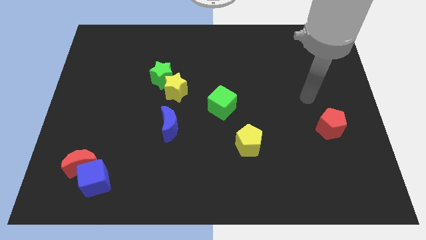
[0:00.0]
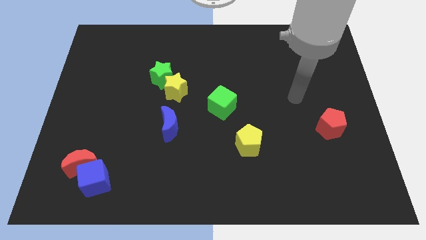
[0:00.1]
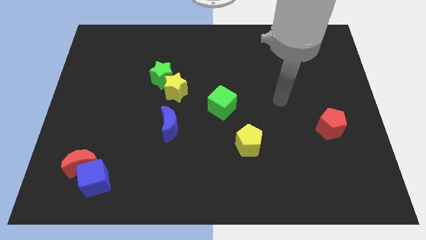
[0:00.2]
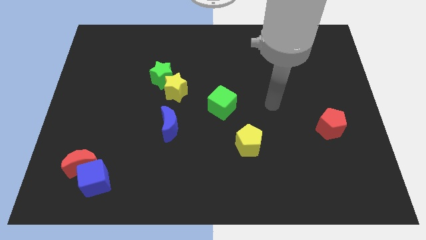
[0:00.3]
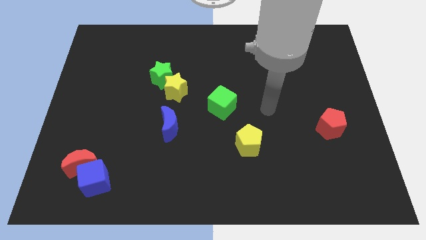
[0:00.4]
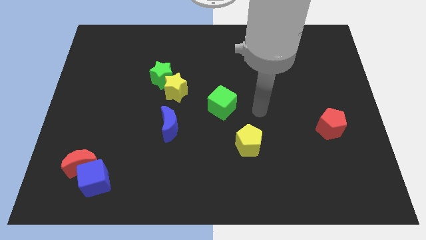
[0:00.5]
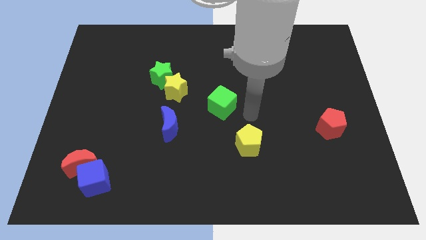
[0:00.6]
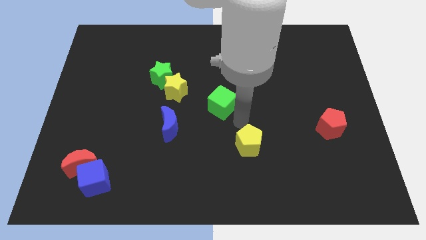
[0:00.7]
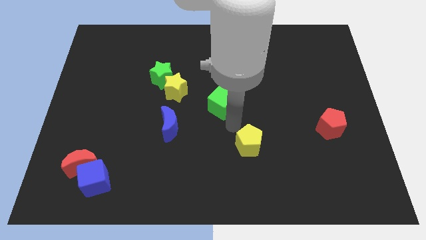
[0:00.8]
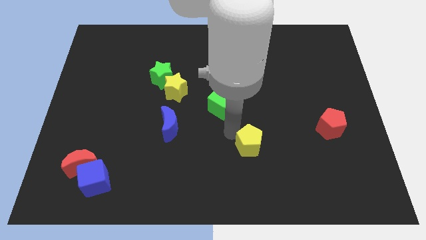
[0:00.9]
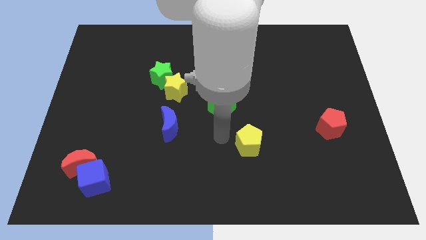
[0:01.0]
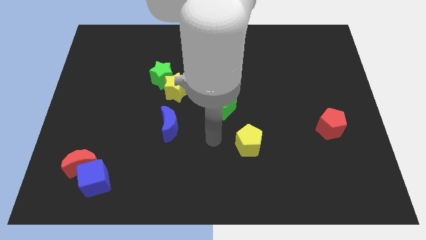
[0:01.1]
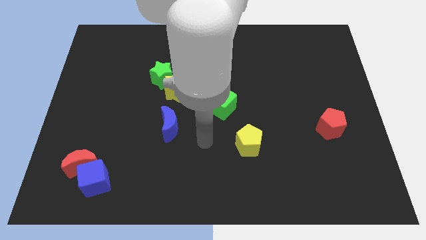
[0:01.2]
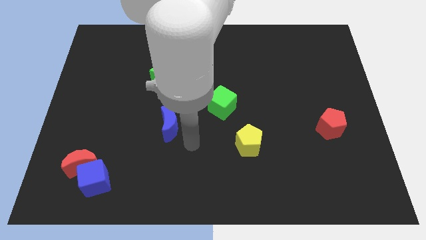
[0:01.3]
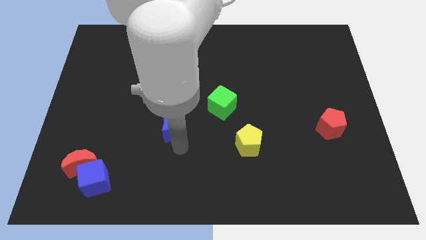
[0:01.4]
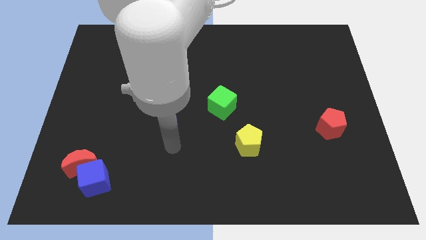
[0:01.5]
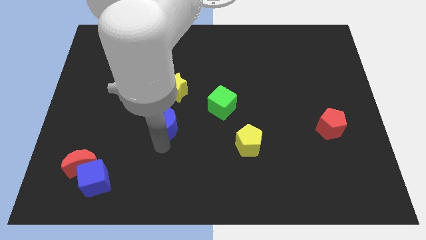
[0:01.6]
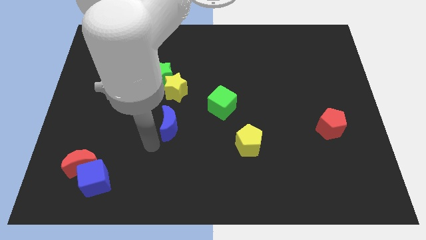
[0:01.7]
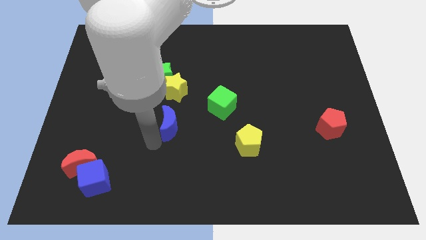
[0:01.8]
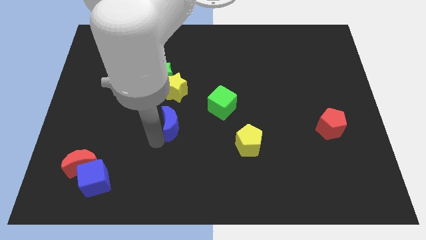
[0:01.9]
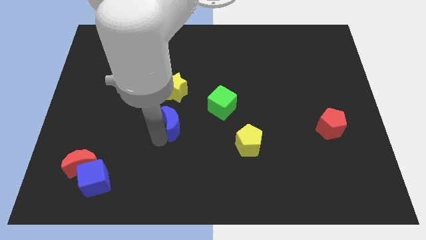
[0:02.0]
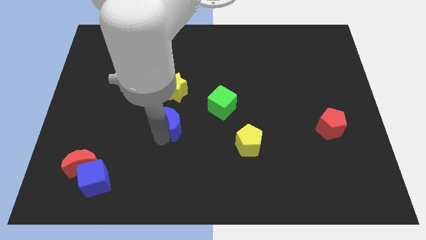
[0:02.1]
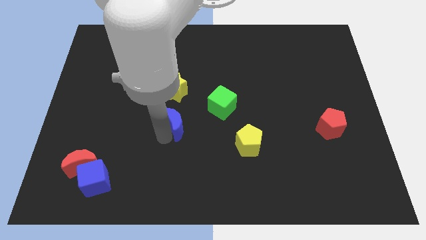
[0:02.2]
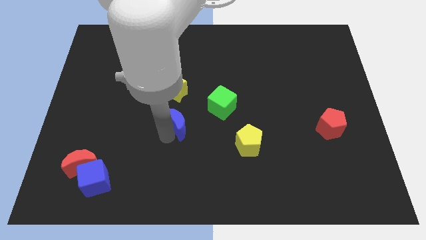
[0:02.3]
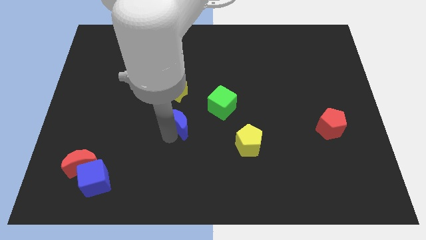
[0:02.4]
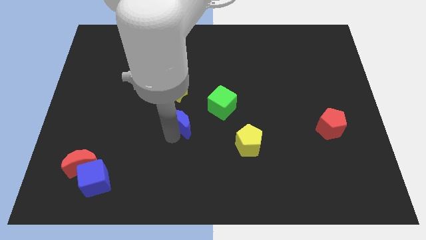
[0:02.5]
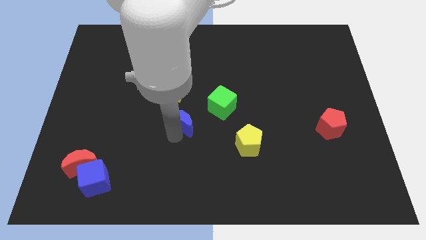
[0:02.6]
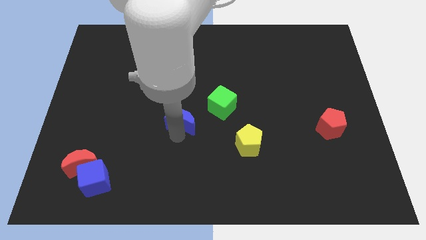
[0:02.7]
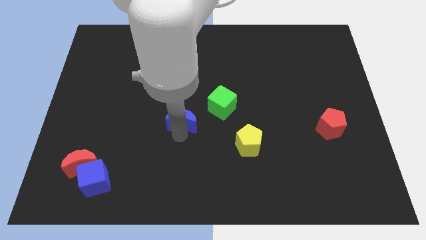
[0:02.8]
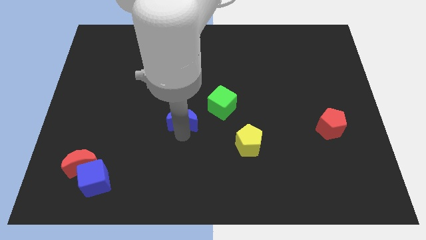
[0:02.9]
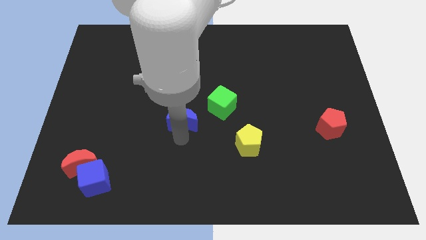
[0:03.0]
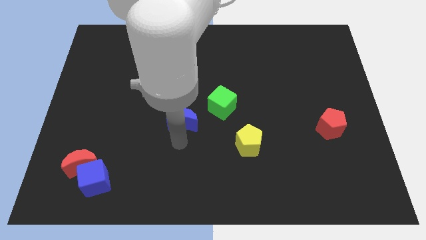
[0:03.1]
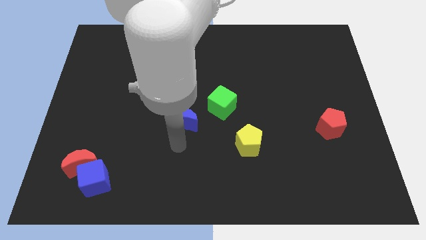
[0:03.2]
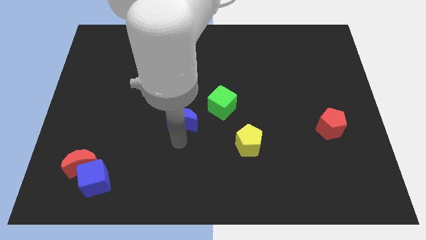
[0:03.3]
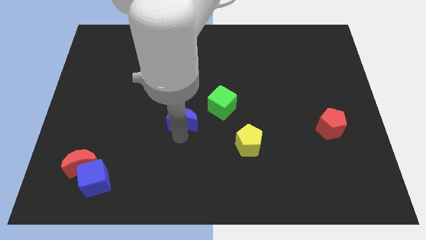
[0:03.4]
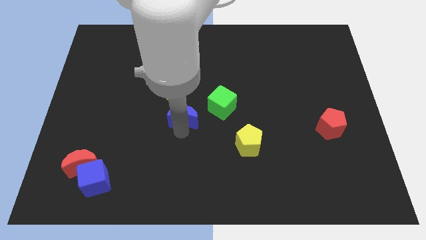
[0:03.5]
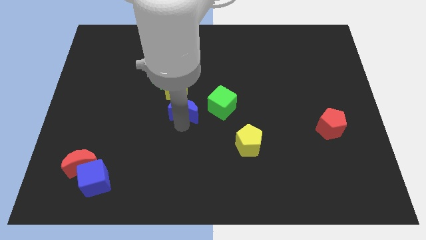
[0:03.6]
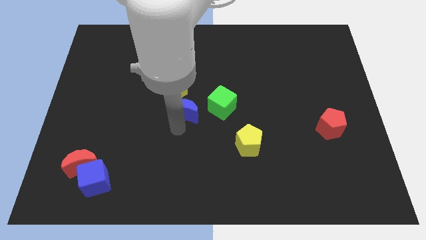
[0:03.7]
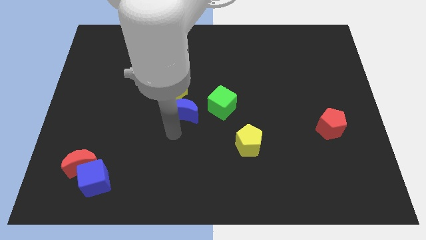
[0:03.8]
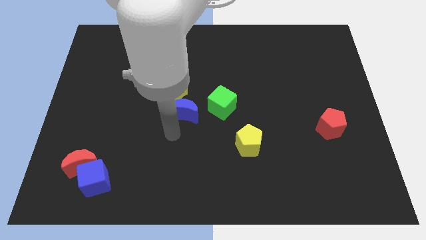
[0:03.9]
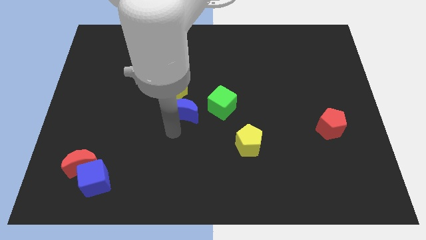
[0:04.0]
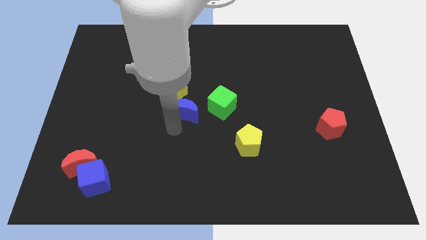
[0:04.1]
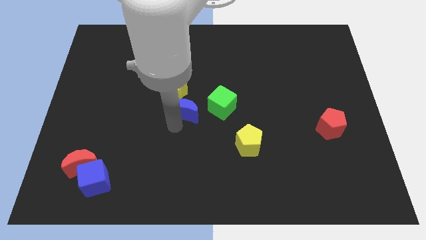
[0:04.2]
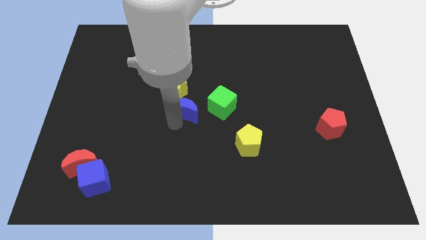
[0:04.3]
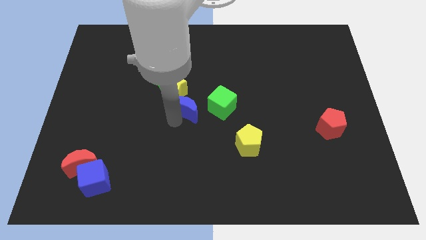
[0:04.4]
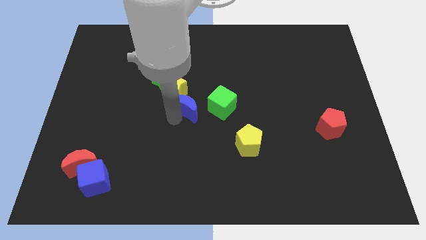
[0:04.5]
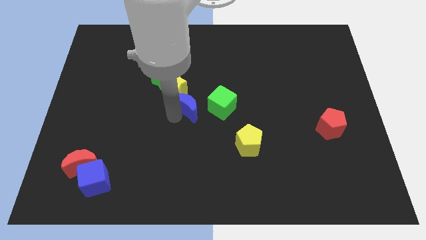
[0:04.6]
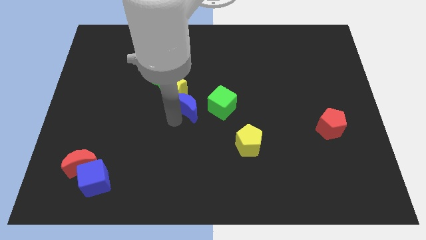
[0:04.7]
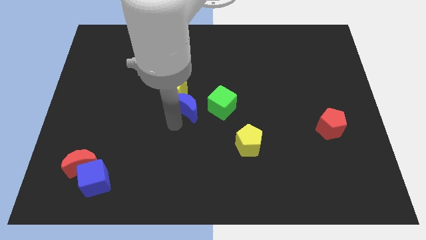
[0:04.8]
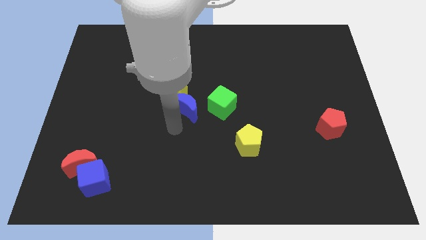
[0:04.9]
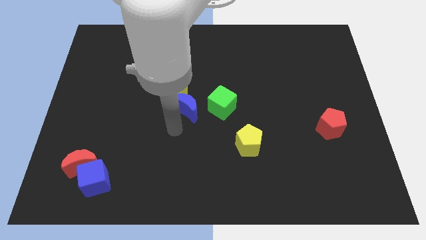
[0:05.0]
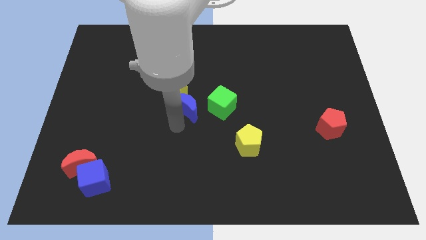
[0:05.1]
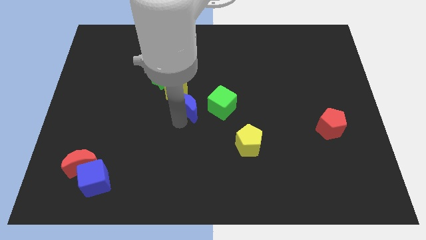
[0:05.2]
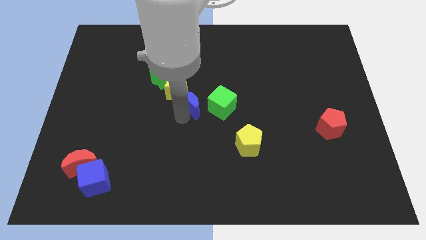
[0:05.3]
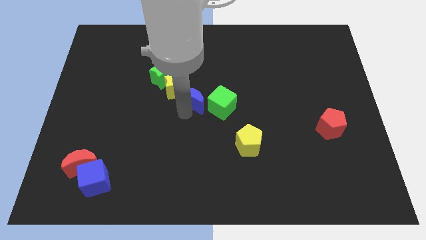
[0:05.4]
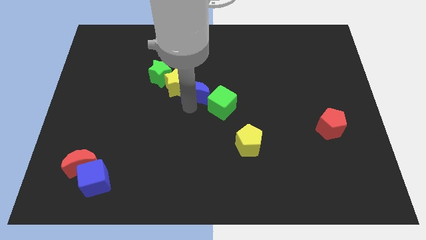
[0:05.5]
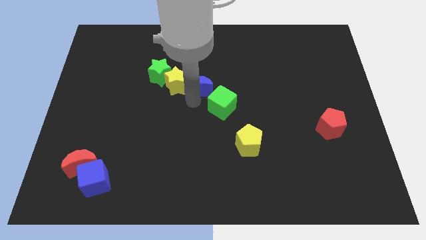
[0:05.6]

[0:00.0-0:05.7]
push the blue moon to the right side of the green star

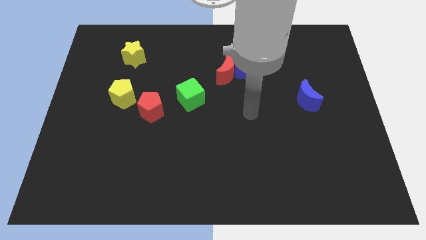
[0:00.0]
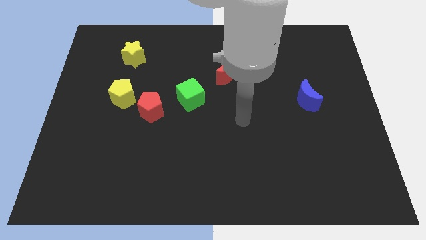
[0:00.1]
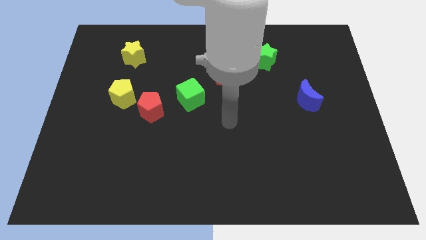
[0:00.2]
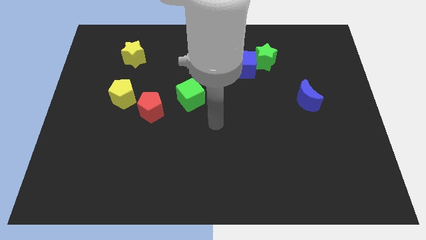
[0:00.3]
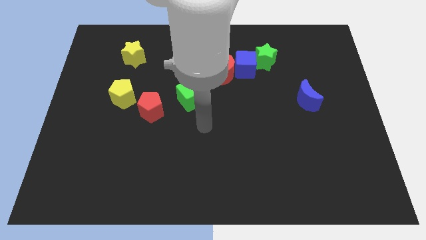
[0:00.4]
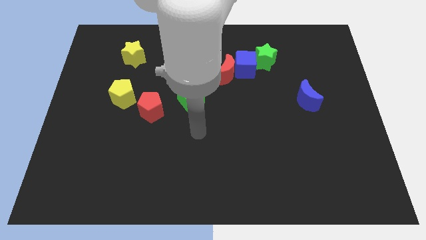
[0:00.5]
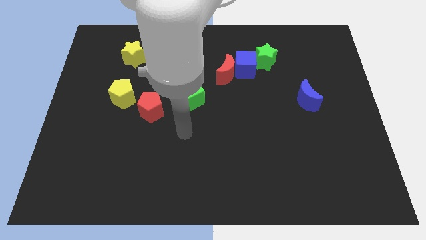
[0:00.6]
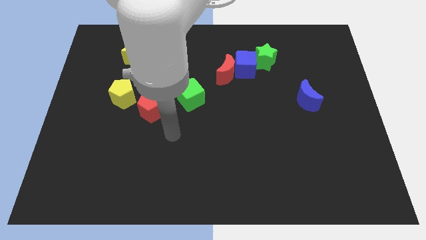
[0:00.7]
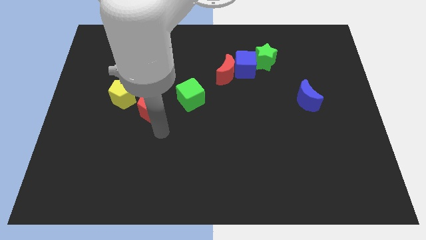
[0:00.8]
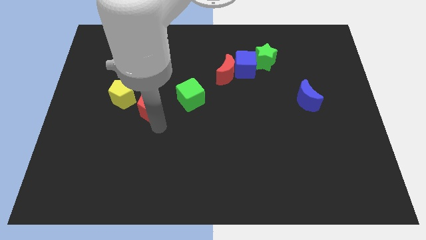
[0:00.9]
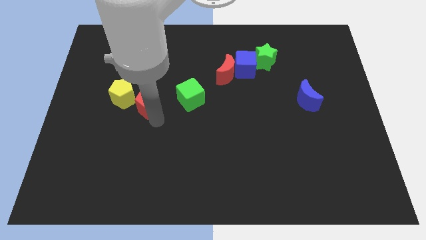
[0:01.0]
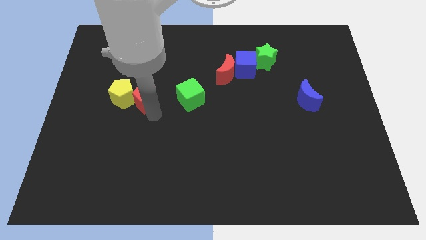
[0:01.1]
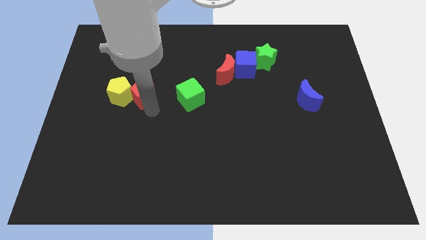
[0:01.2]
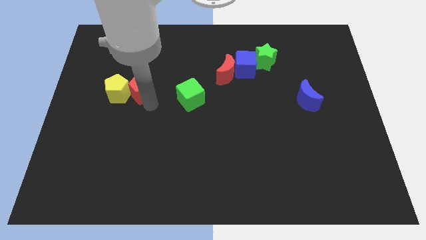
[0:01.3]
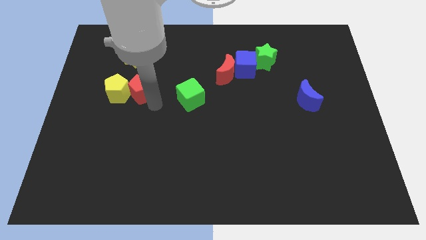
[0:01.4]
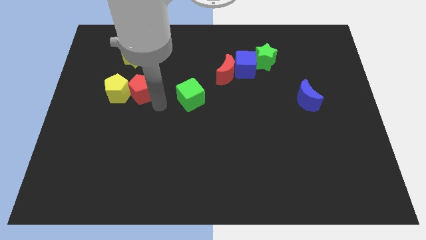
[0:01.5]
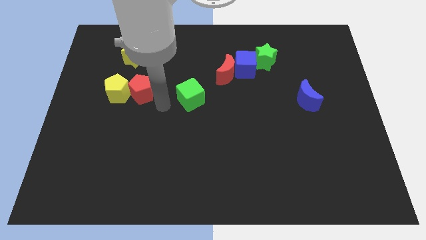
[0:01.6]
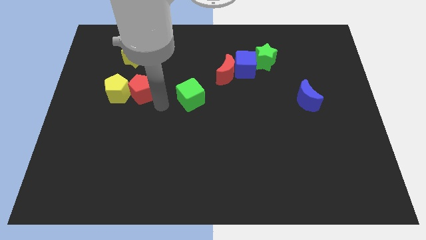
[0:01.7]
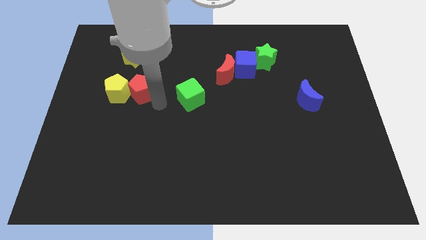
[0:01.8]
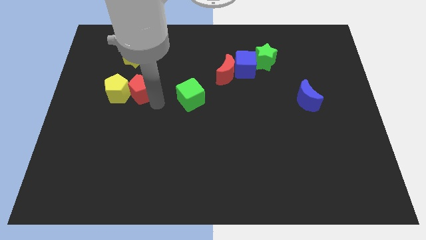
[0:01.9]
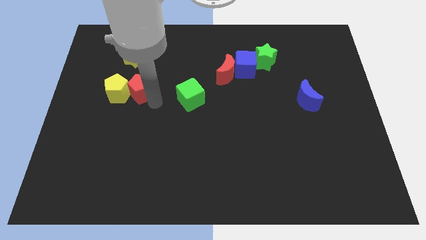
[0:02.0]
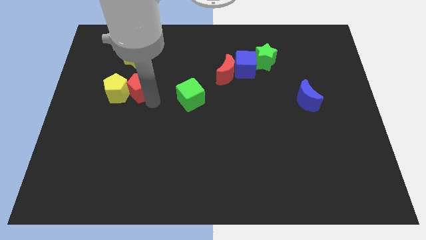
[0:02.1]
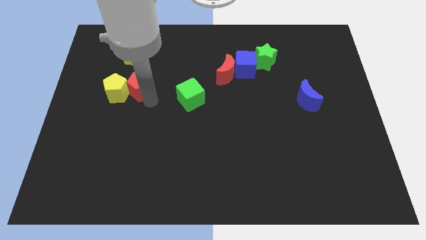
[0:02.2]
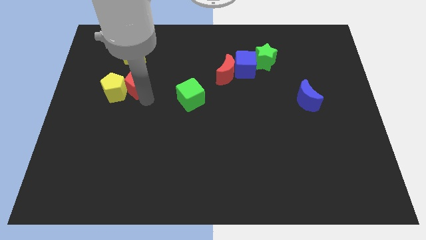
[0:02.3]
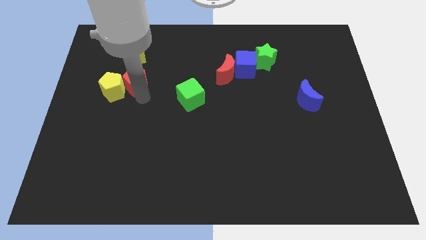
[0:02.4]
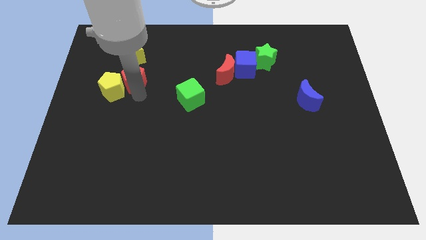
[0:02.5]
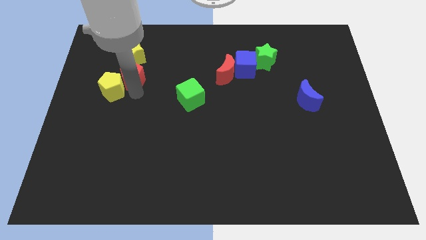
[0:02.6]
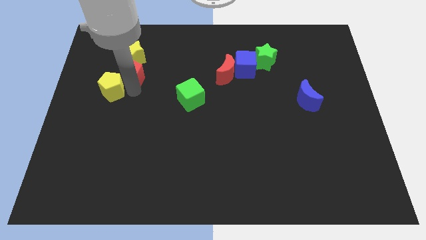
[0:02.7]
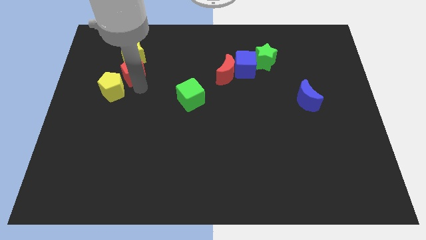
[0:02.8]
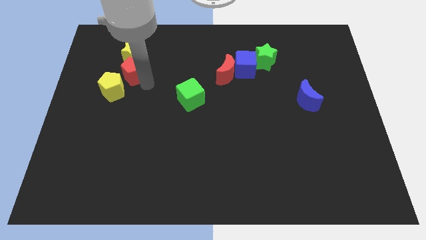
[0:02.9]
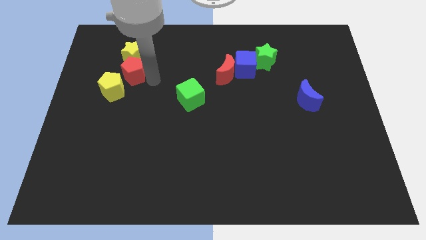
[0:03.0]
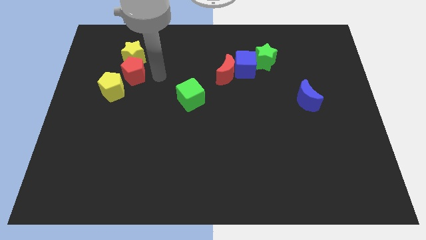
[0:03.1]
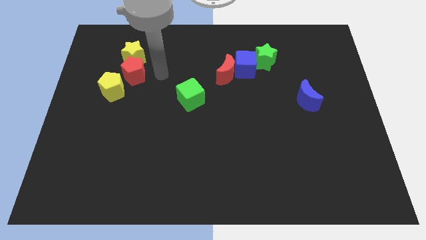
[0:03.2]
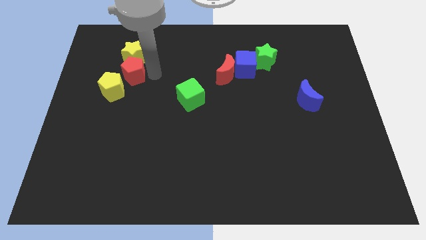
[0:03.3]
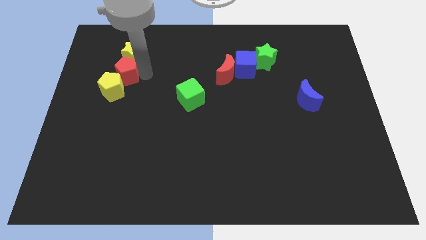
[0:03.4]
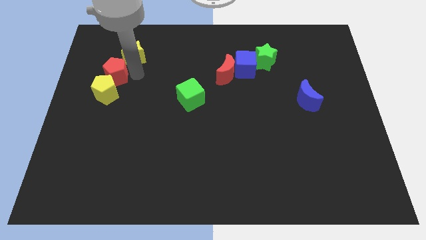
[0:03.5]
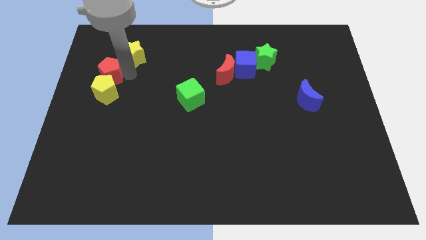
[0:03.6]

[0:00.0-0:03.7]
push the red pentagon to the top left of the yellow pentagon
